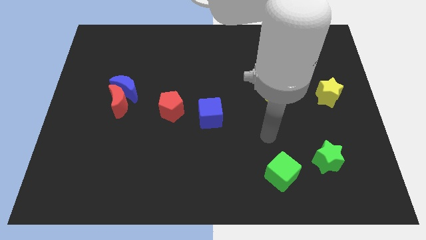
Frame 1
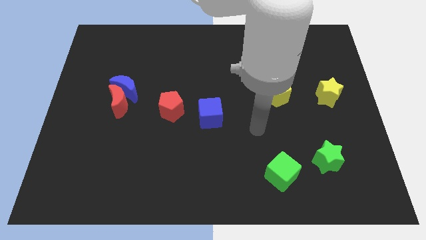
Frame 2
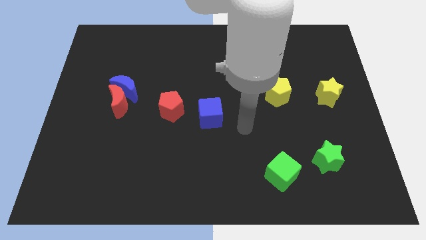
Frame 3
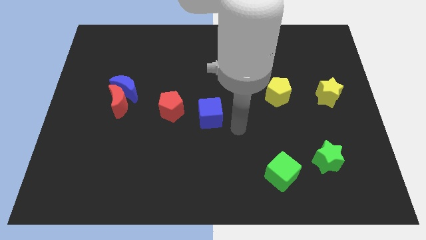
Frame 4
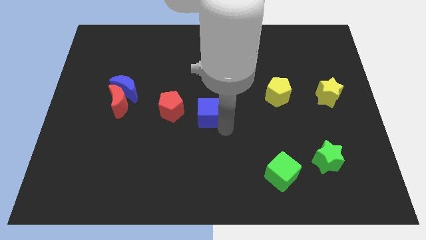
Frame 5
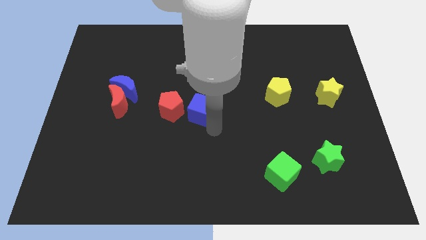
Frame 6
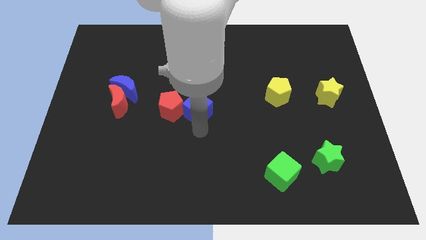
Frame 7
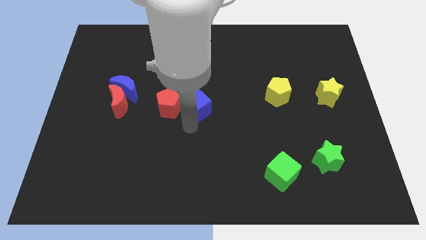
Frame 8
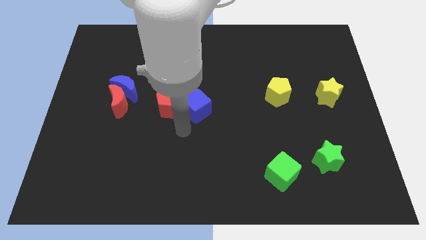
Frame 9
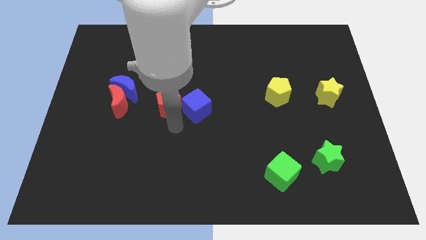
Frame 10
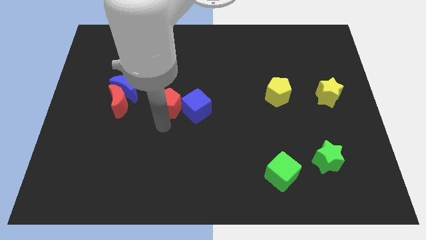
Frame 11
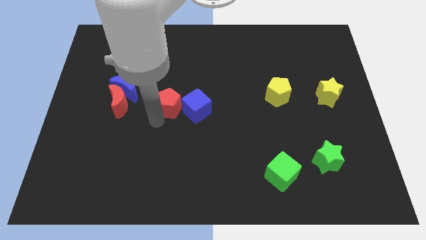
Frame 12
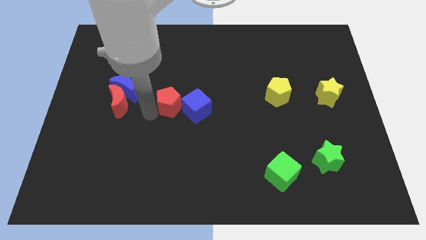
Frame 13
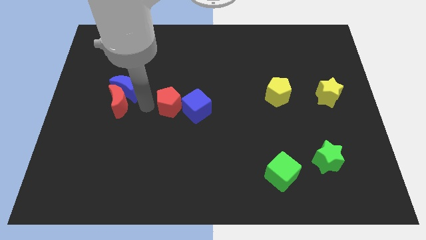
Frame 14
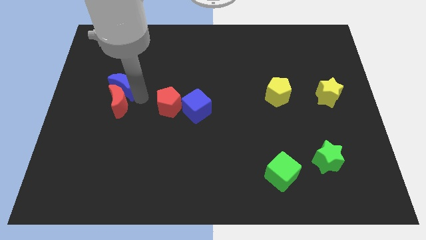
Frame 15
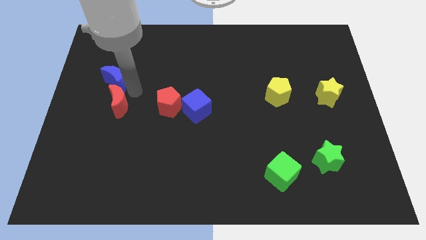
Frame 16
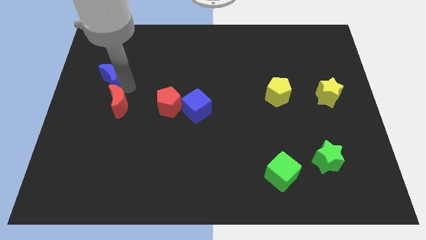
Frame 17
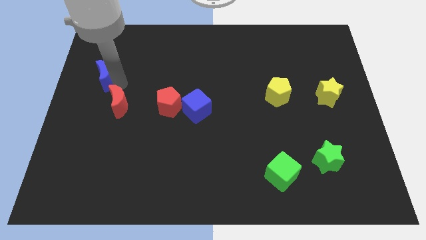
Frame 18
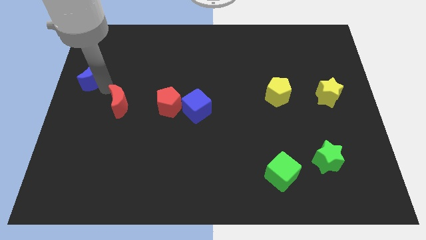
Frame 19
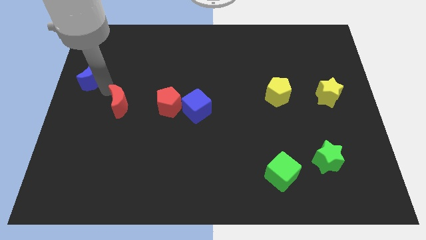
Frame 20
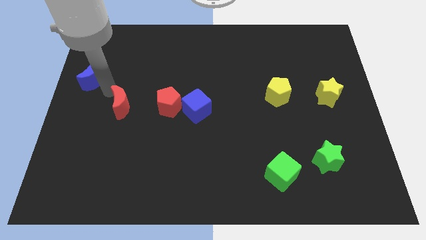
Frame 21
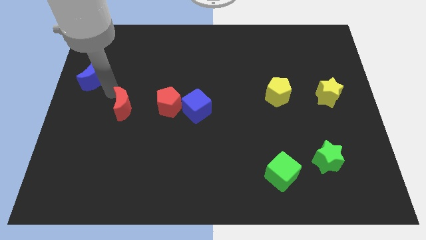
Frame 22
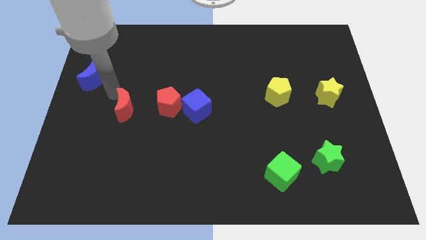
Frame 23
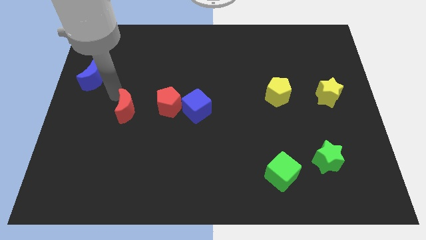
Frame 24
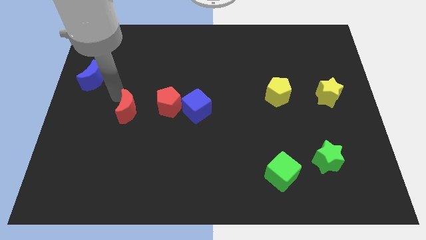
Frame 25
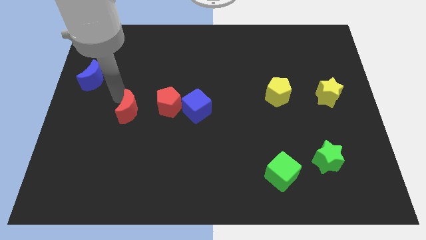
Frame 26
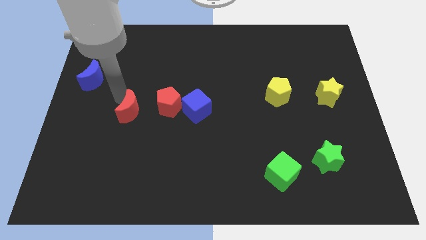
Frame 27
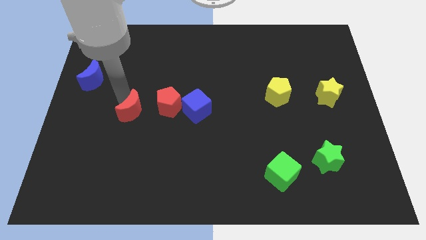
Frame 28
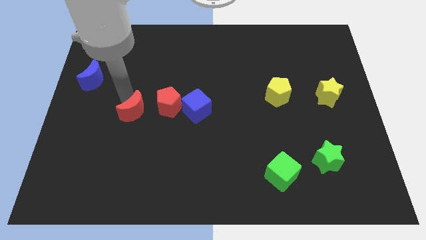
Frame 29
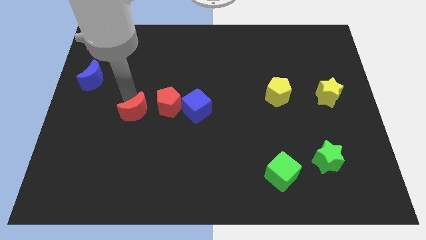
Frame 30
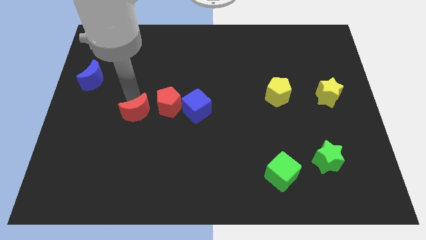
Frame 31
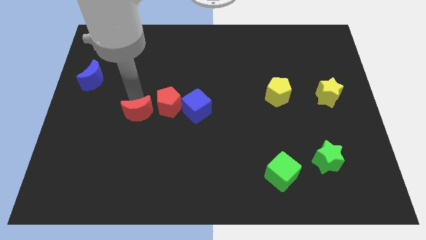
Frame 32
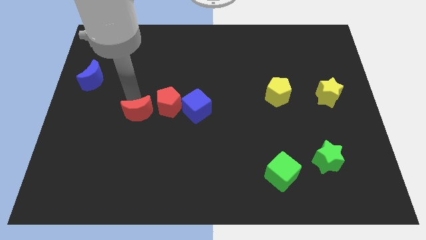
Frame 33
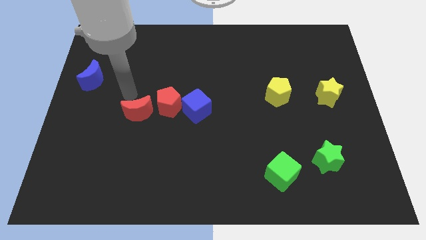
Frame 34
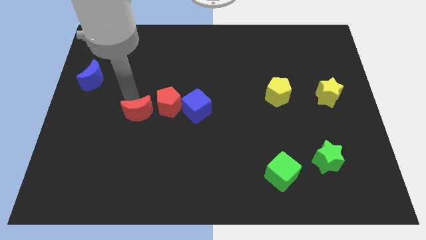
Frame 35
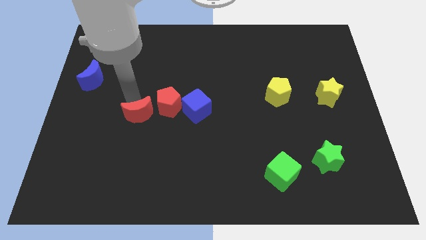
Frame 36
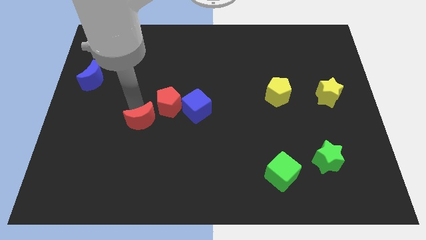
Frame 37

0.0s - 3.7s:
slightly move the red moon downwards and to the right diagonally

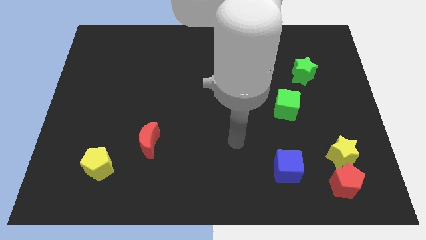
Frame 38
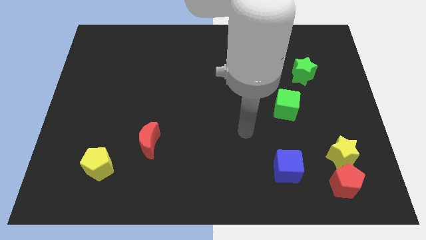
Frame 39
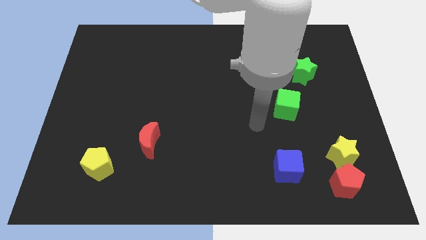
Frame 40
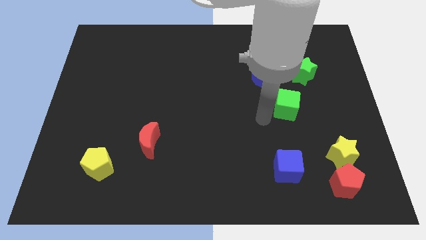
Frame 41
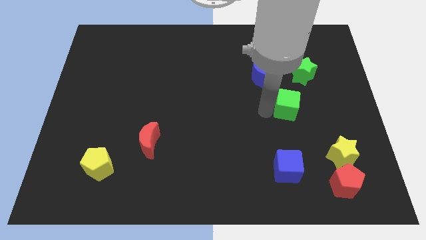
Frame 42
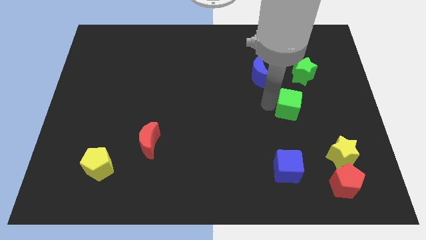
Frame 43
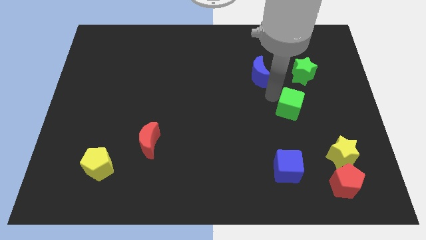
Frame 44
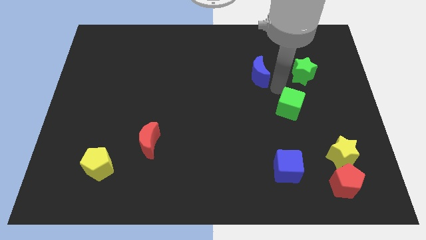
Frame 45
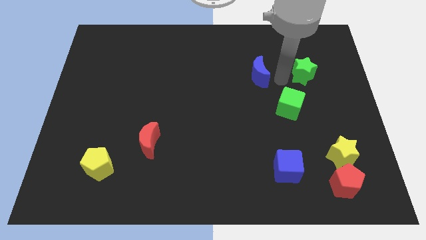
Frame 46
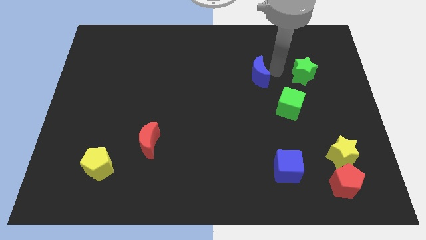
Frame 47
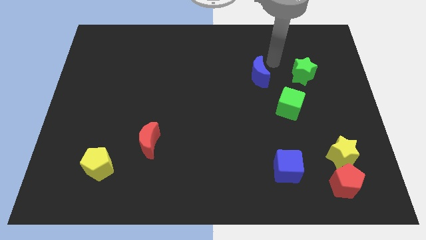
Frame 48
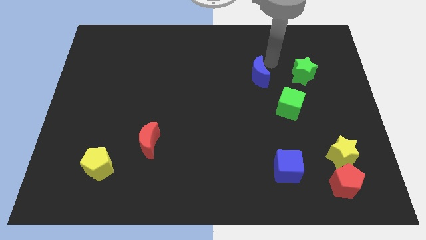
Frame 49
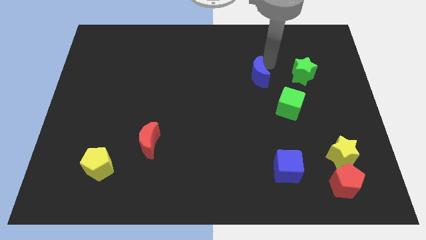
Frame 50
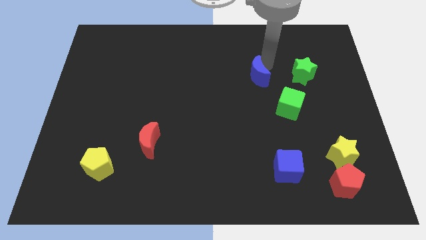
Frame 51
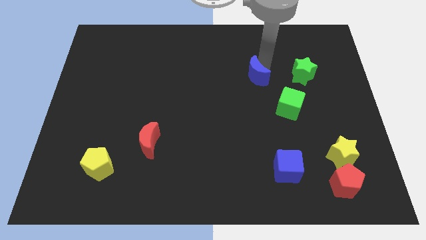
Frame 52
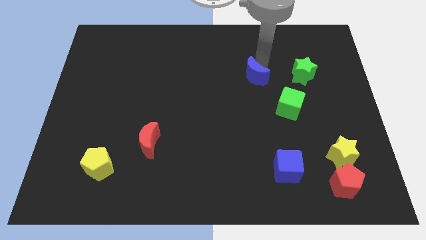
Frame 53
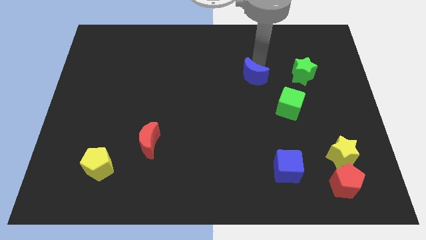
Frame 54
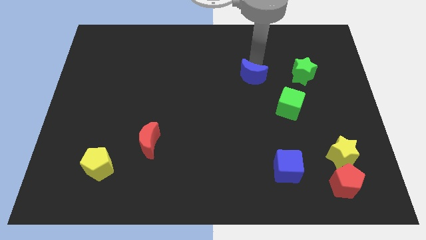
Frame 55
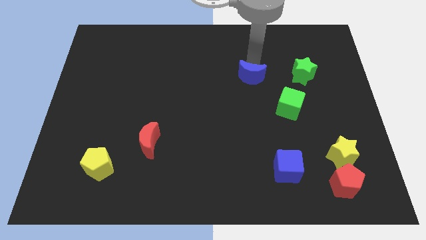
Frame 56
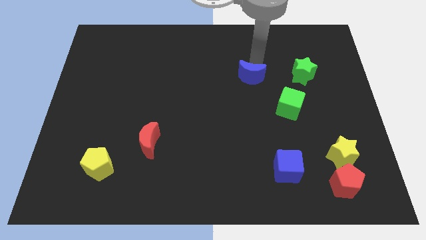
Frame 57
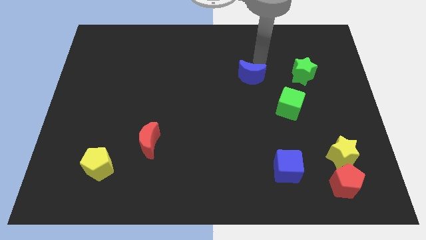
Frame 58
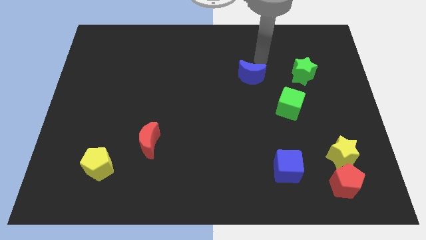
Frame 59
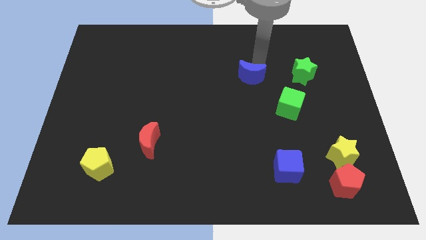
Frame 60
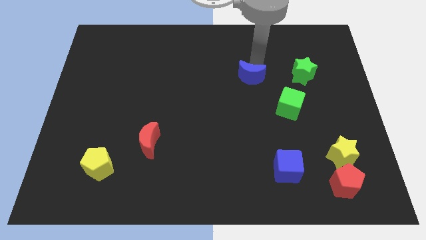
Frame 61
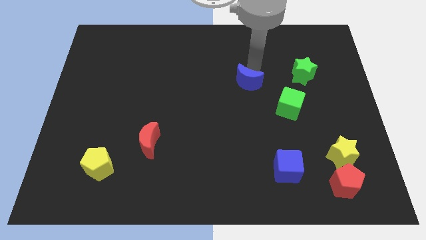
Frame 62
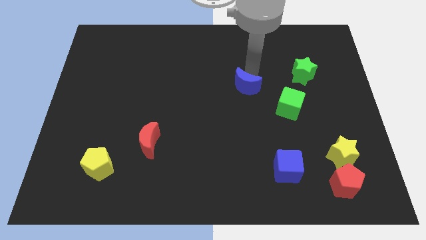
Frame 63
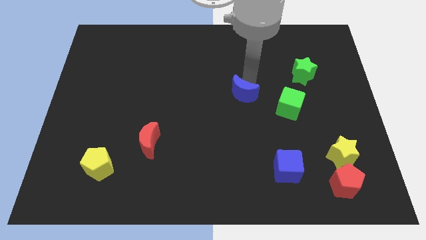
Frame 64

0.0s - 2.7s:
slide the blue moon diagonally downwards and to the left a little

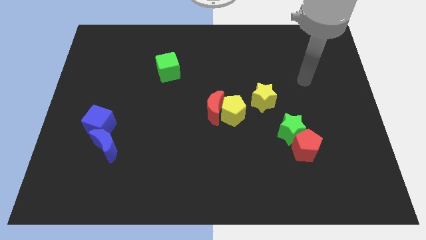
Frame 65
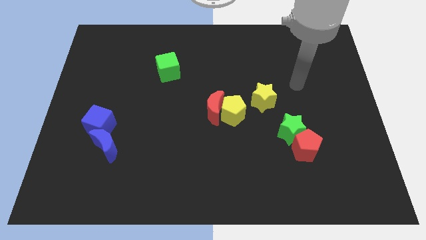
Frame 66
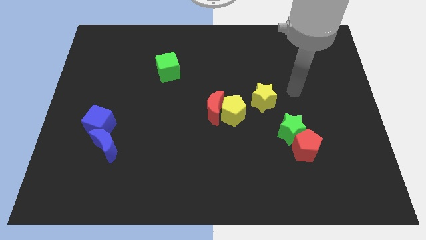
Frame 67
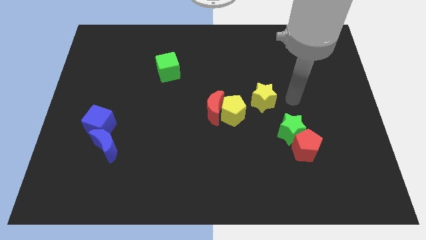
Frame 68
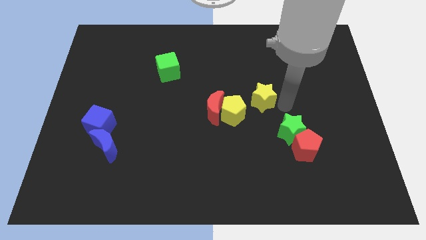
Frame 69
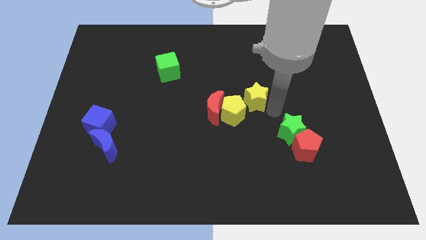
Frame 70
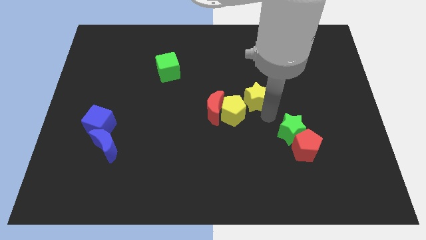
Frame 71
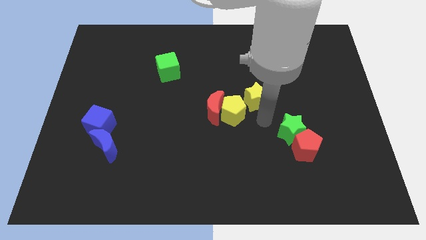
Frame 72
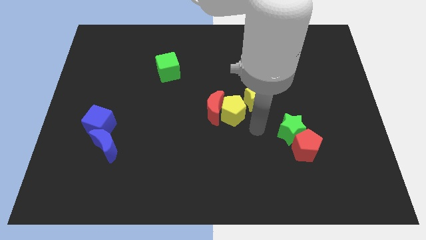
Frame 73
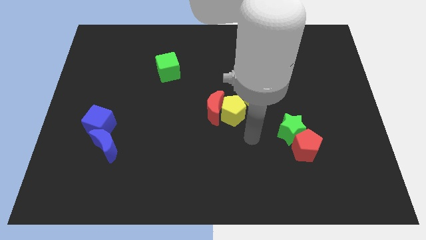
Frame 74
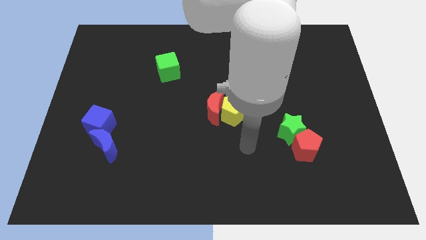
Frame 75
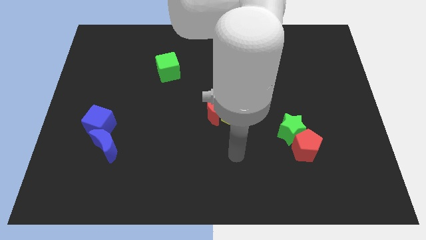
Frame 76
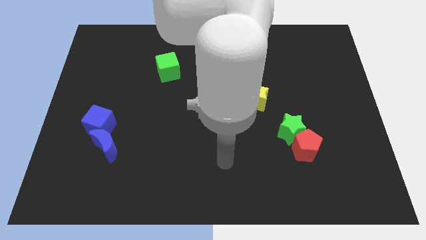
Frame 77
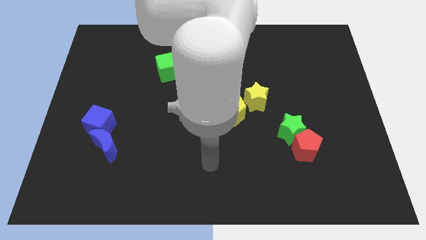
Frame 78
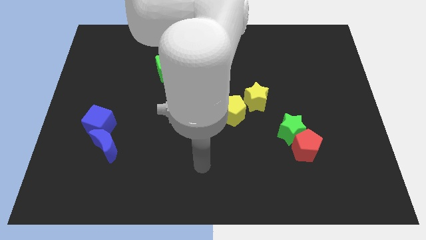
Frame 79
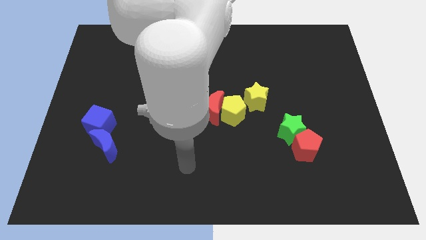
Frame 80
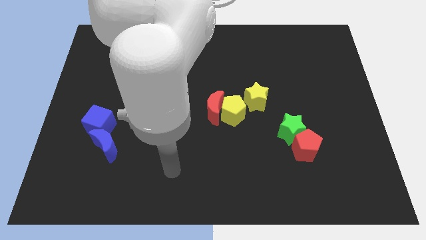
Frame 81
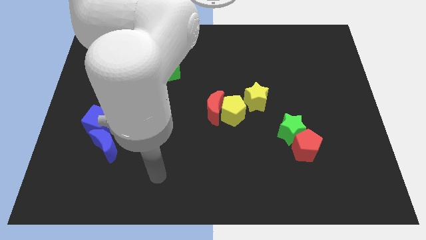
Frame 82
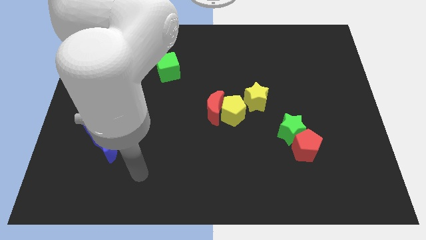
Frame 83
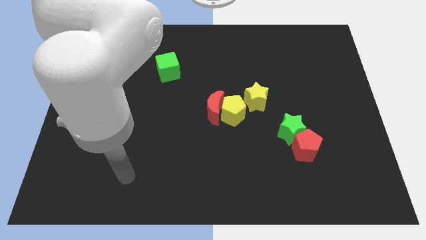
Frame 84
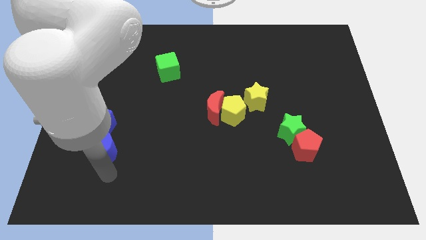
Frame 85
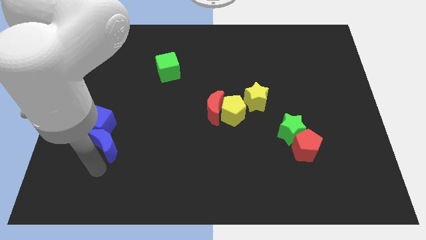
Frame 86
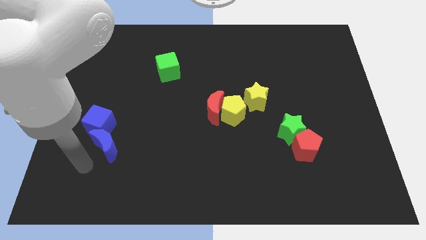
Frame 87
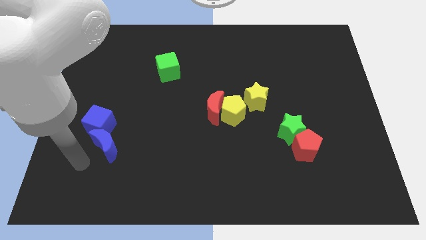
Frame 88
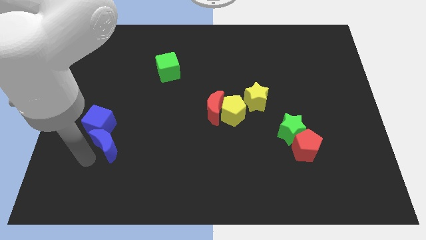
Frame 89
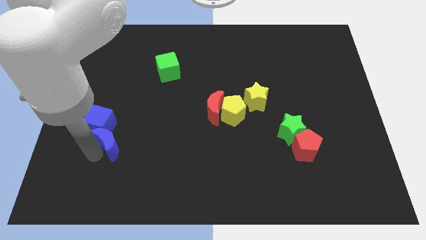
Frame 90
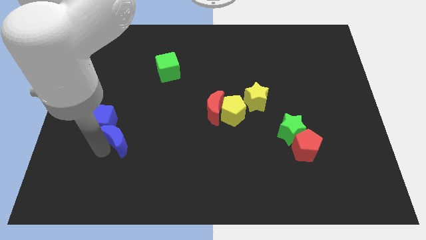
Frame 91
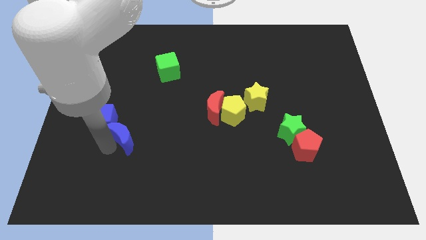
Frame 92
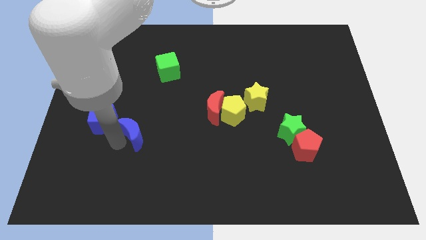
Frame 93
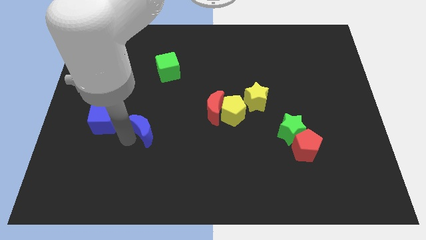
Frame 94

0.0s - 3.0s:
slide the blue moon up and to the right somewhat
